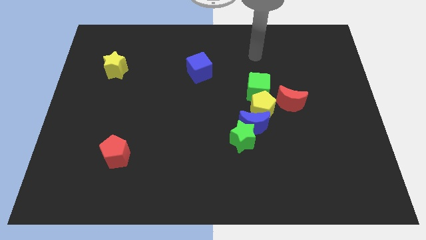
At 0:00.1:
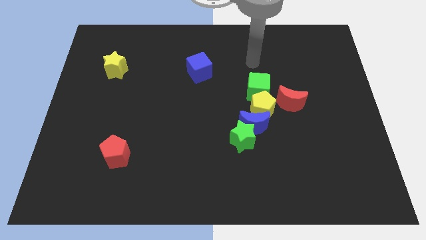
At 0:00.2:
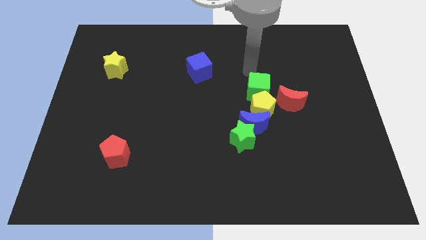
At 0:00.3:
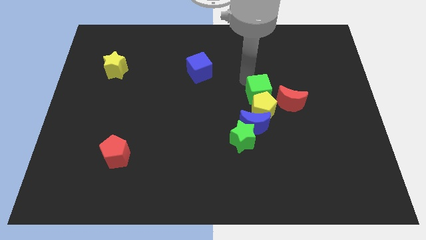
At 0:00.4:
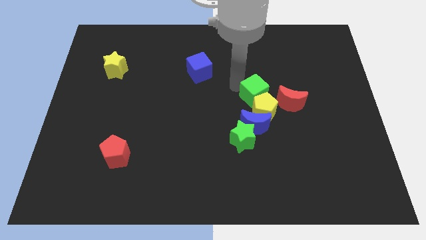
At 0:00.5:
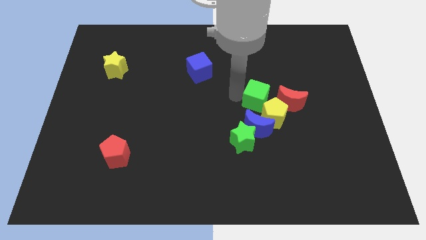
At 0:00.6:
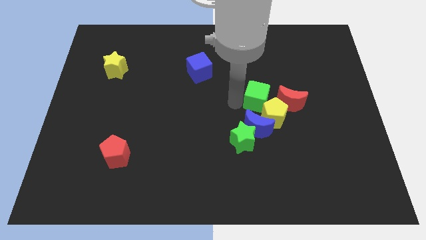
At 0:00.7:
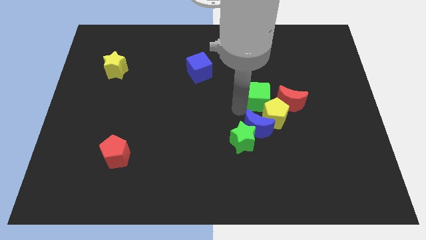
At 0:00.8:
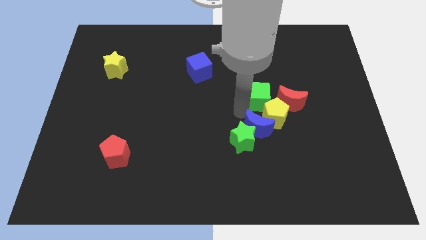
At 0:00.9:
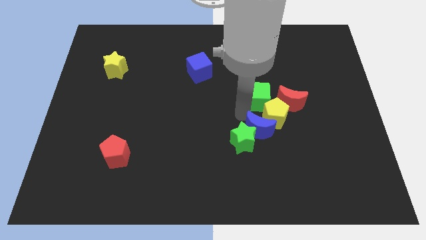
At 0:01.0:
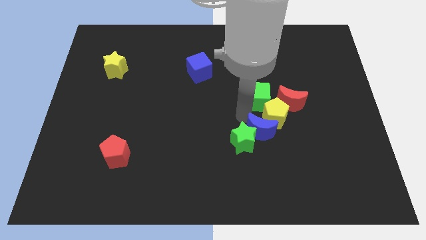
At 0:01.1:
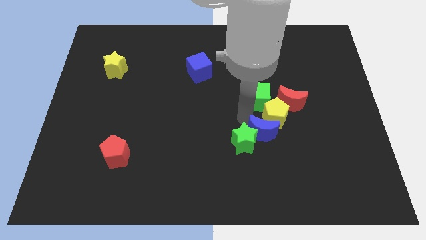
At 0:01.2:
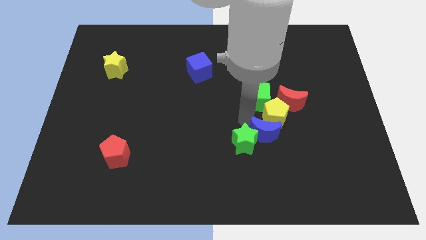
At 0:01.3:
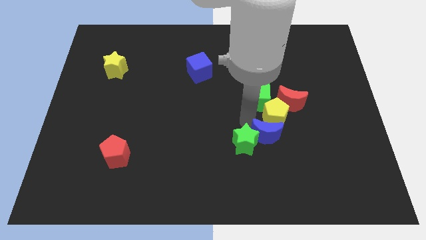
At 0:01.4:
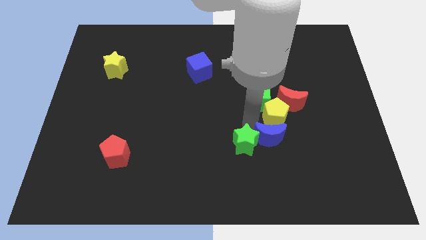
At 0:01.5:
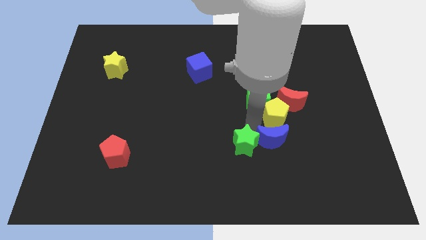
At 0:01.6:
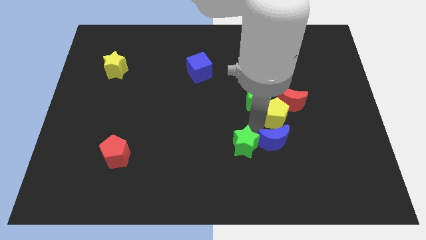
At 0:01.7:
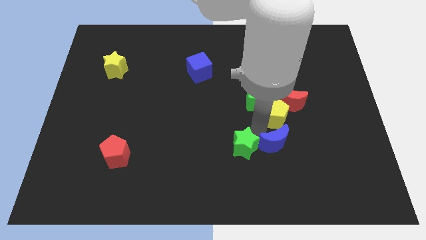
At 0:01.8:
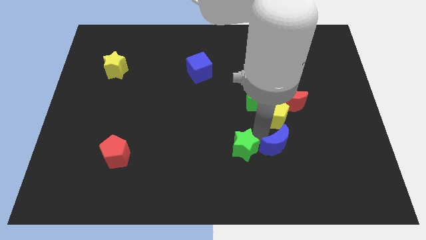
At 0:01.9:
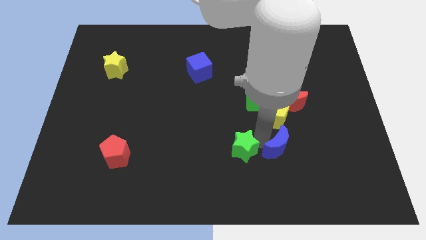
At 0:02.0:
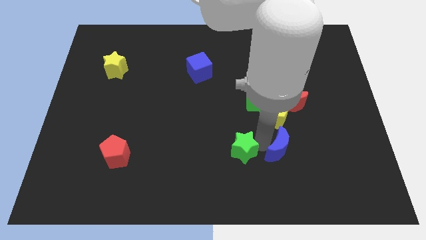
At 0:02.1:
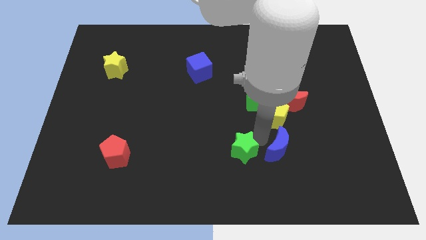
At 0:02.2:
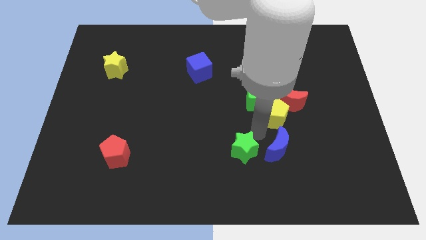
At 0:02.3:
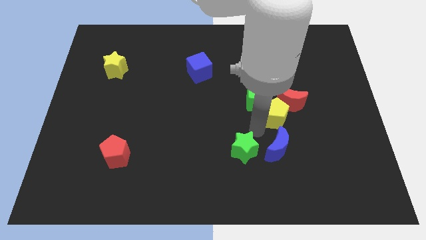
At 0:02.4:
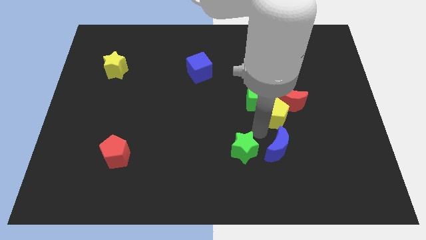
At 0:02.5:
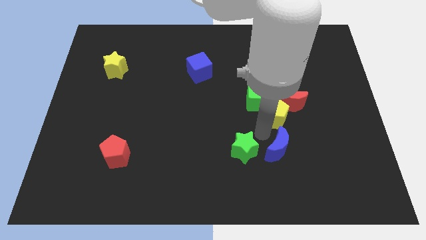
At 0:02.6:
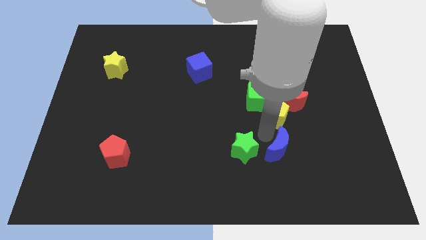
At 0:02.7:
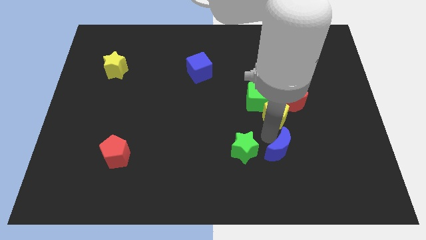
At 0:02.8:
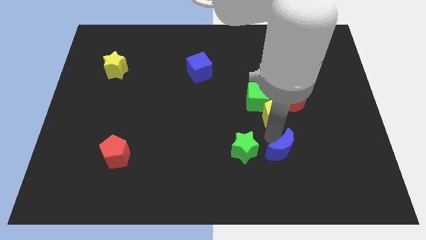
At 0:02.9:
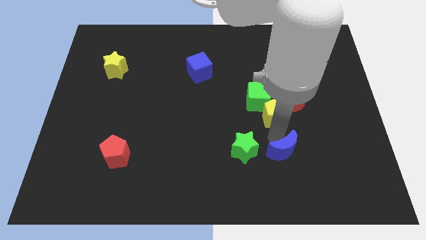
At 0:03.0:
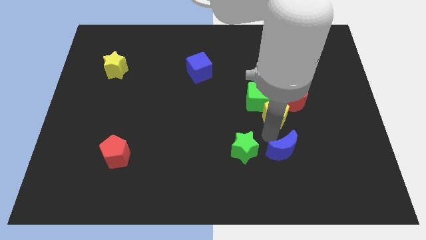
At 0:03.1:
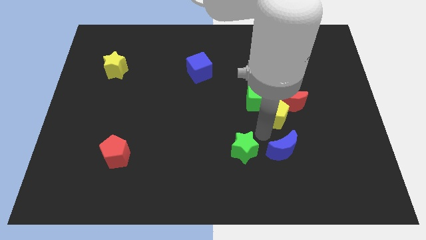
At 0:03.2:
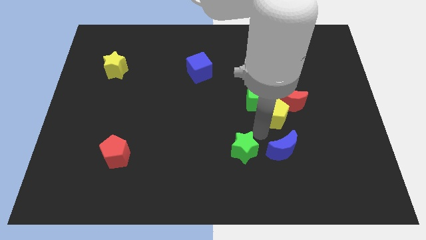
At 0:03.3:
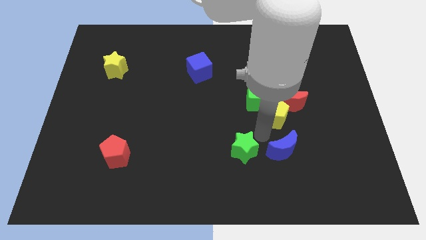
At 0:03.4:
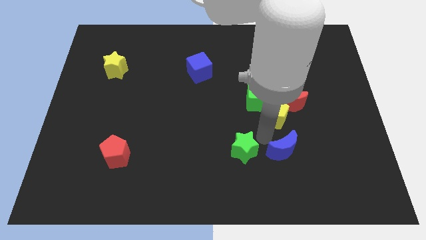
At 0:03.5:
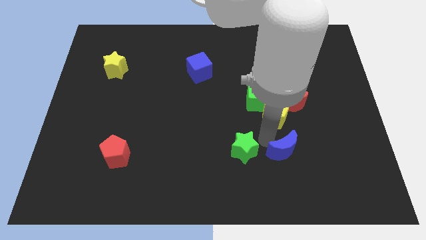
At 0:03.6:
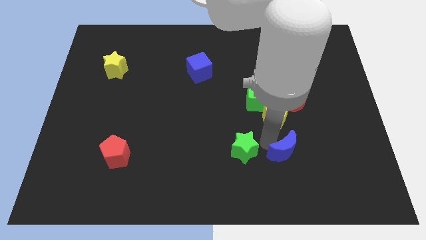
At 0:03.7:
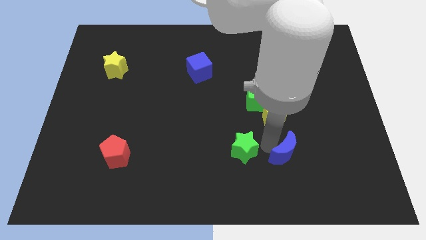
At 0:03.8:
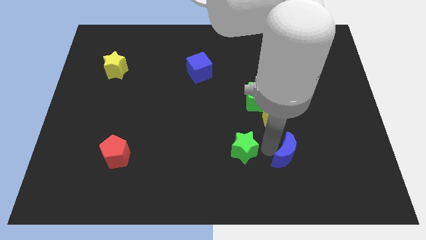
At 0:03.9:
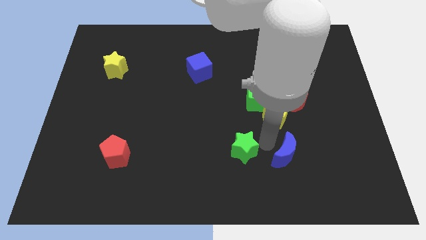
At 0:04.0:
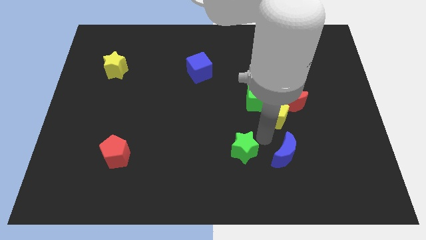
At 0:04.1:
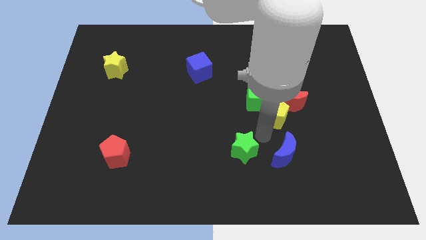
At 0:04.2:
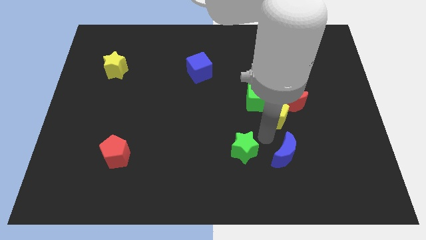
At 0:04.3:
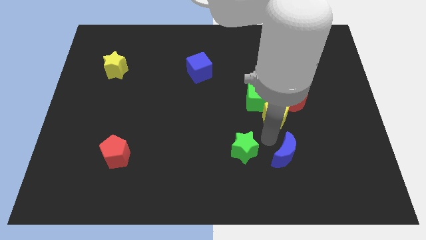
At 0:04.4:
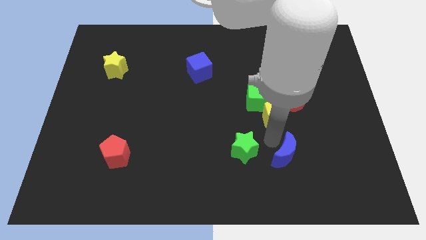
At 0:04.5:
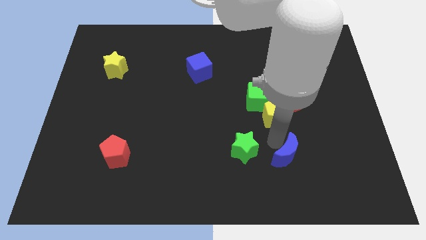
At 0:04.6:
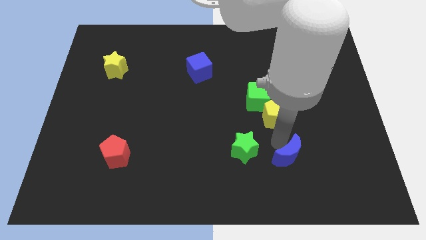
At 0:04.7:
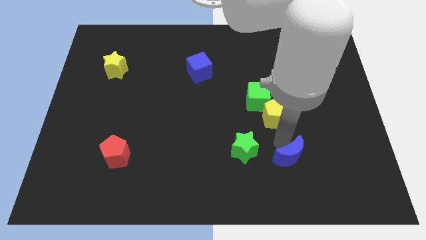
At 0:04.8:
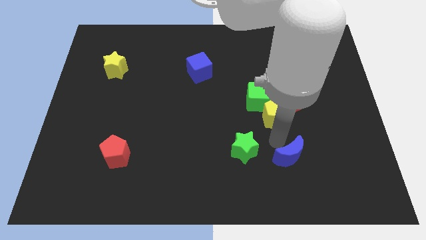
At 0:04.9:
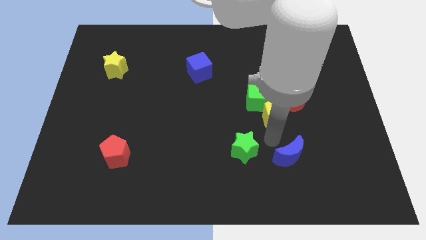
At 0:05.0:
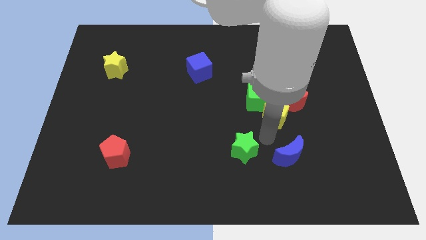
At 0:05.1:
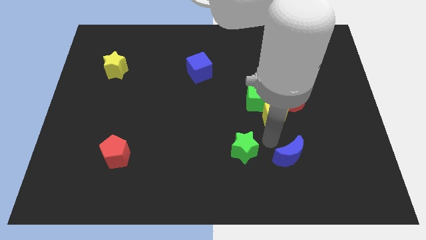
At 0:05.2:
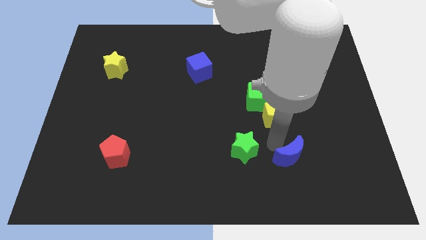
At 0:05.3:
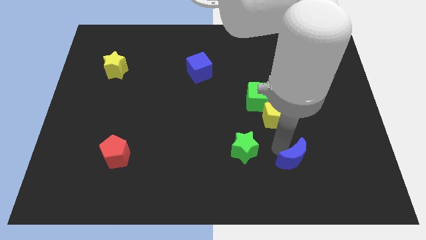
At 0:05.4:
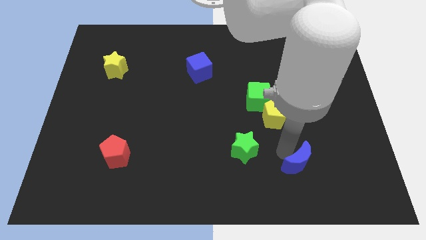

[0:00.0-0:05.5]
move the blue moon away from the green star and yellow pentagon

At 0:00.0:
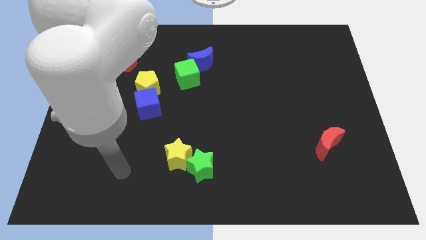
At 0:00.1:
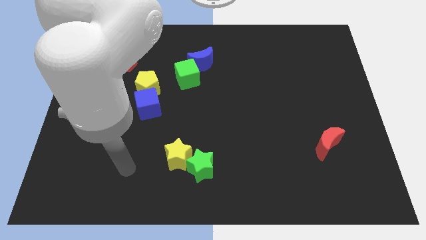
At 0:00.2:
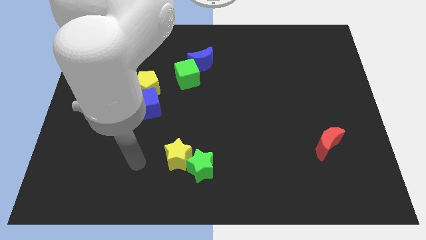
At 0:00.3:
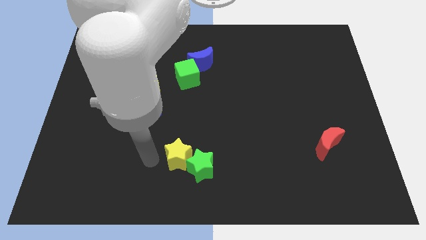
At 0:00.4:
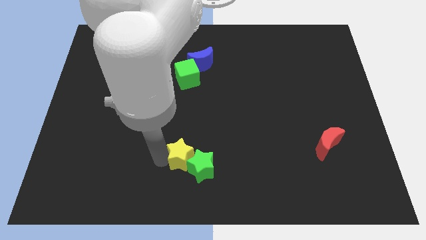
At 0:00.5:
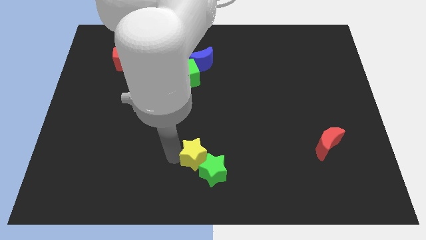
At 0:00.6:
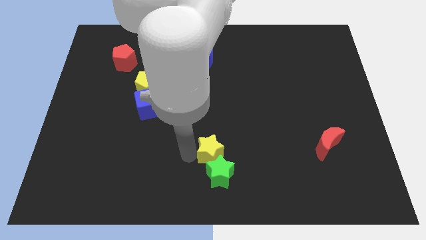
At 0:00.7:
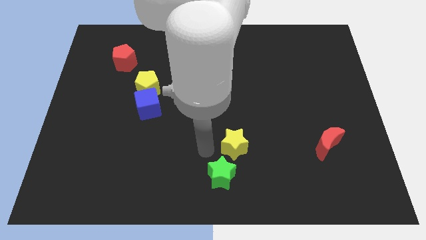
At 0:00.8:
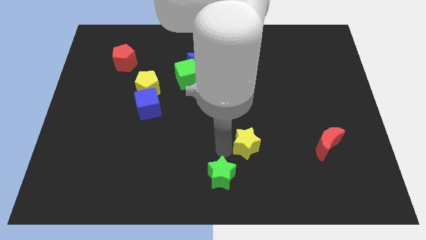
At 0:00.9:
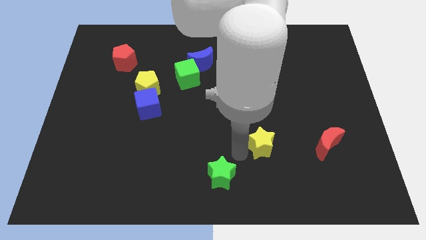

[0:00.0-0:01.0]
move the green star away from the yellow star

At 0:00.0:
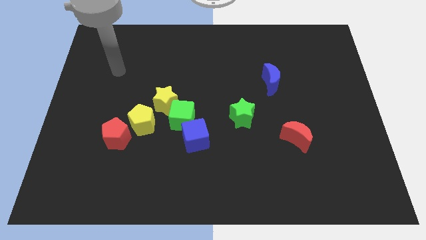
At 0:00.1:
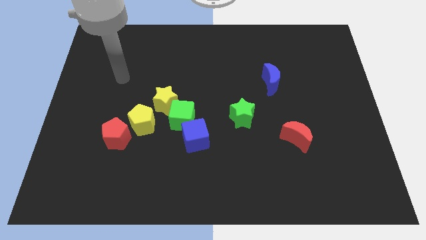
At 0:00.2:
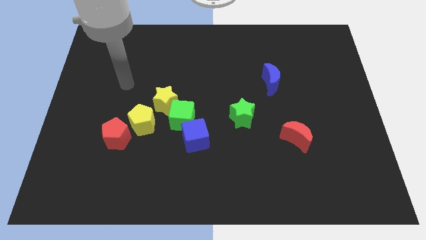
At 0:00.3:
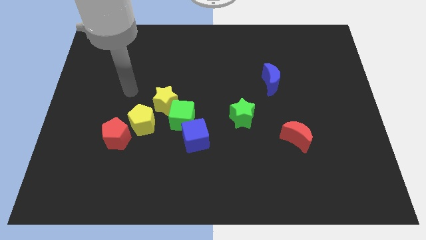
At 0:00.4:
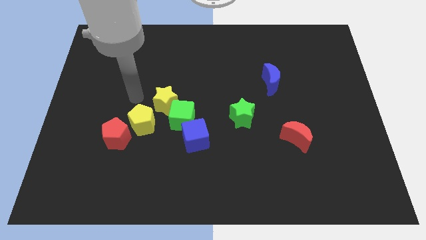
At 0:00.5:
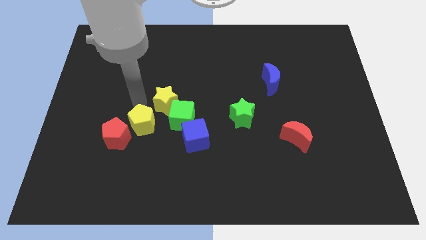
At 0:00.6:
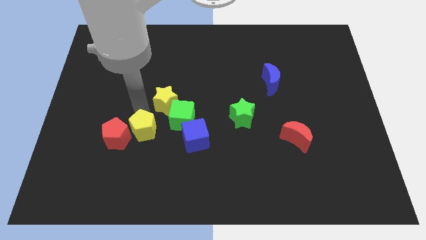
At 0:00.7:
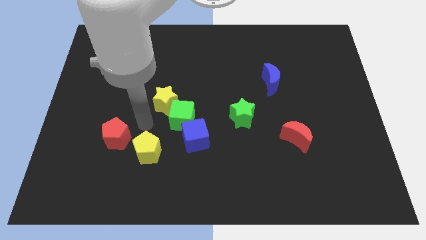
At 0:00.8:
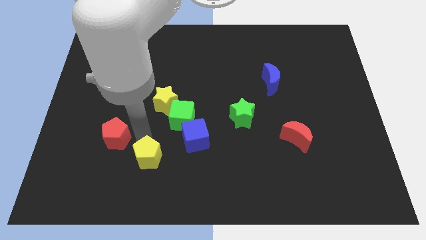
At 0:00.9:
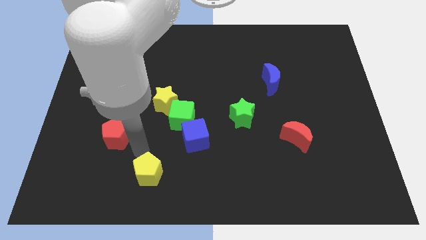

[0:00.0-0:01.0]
move the red pentagon away from the yellow pentagon

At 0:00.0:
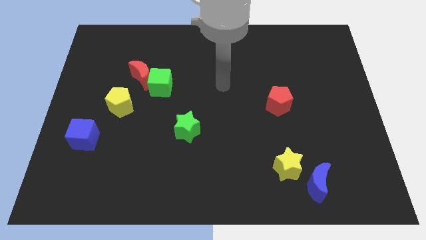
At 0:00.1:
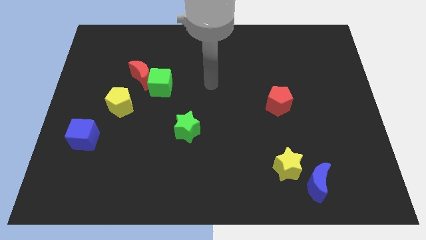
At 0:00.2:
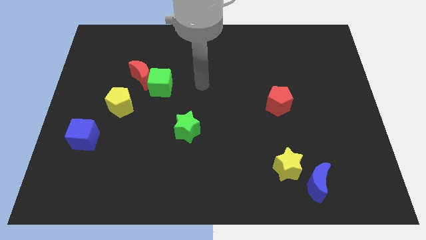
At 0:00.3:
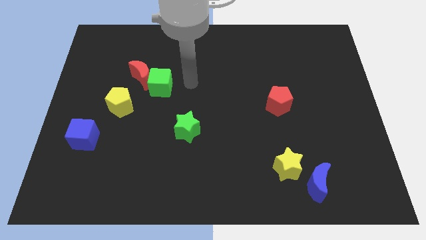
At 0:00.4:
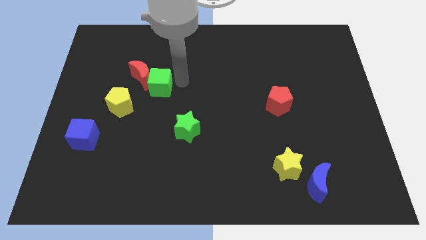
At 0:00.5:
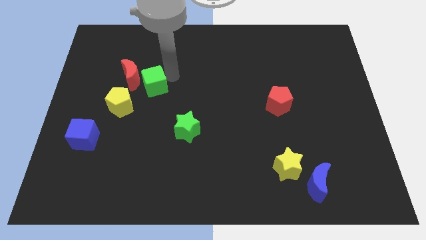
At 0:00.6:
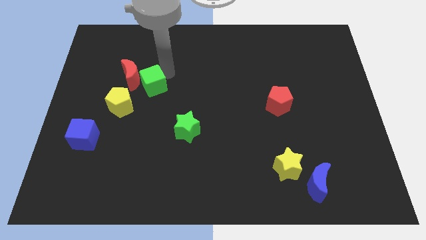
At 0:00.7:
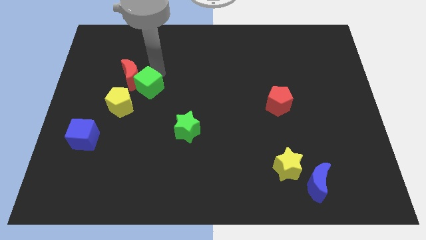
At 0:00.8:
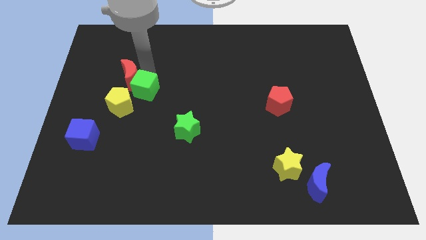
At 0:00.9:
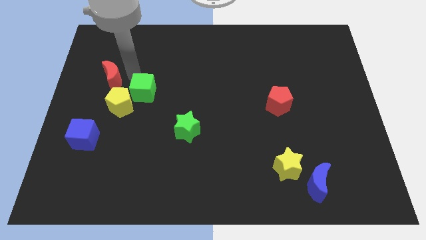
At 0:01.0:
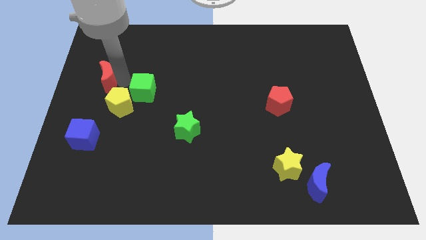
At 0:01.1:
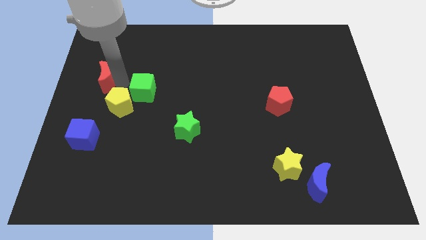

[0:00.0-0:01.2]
pull the green cube apart from the red moon

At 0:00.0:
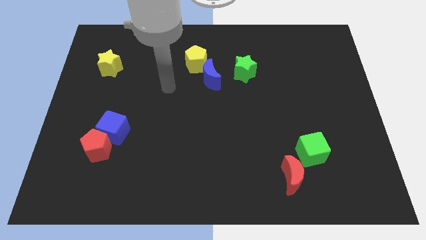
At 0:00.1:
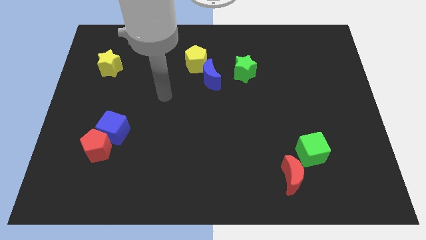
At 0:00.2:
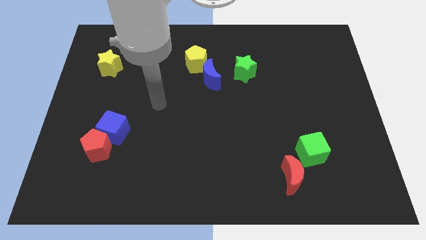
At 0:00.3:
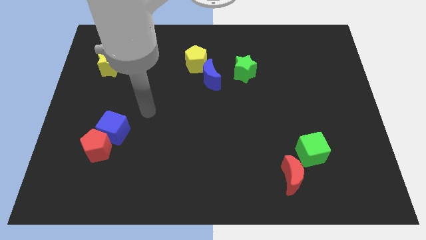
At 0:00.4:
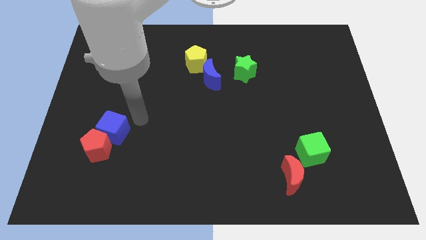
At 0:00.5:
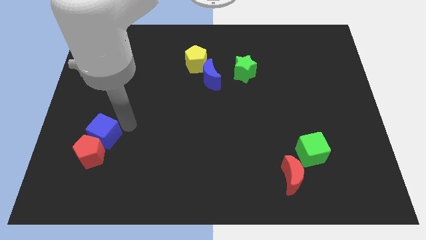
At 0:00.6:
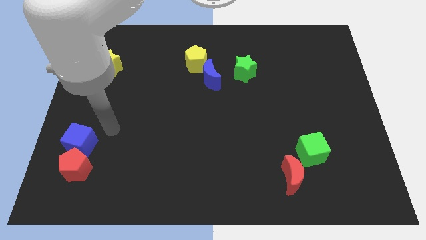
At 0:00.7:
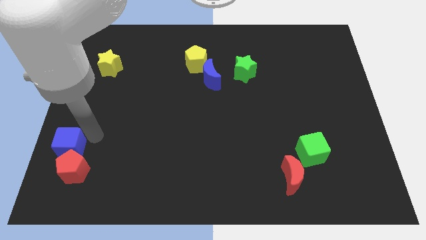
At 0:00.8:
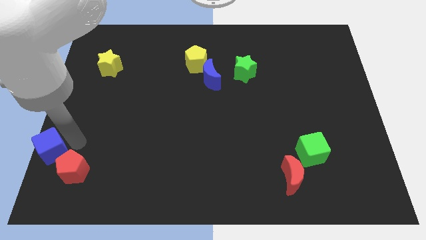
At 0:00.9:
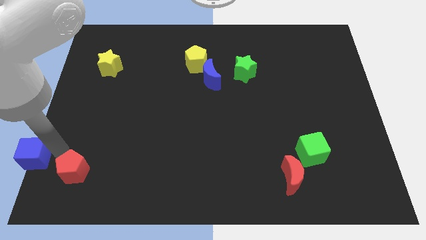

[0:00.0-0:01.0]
separate the red pentagon from the blue cube
